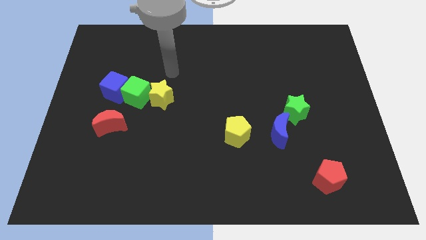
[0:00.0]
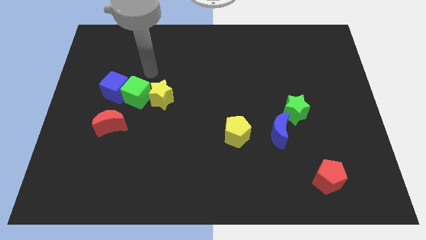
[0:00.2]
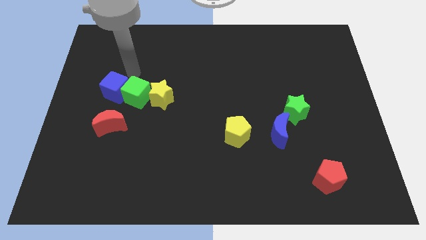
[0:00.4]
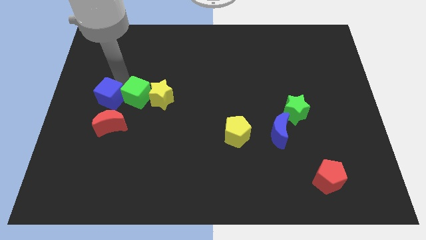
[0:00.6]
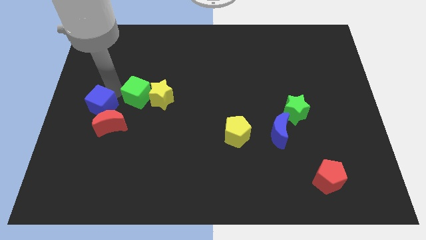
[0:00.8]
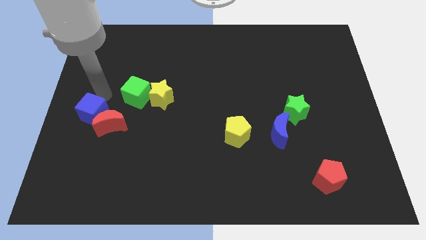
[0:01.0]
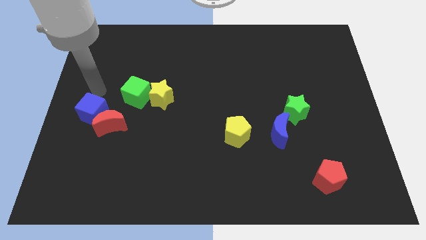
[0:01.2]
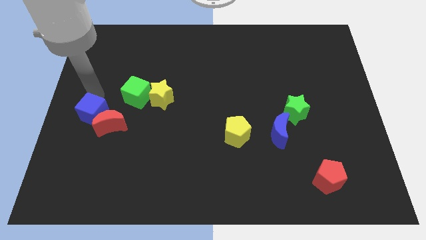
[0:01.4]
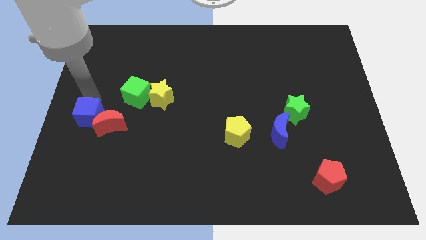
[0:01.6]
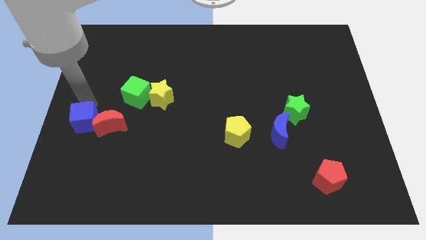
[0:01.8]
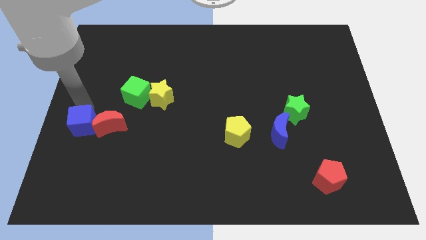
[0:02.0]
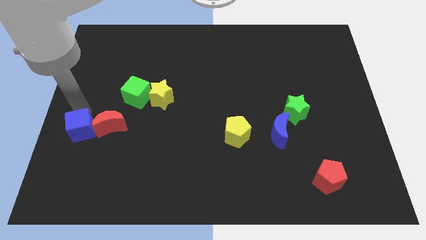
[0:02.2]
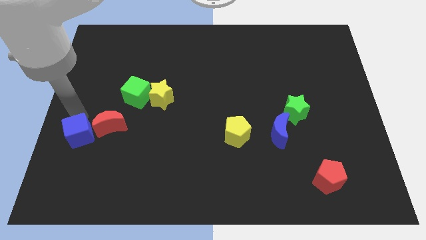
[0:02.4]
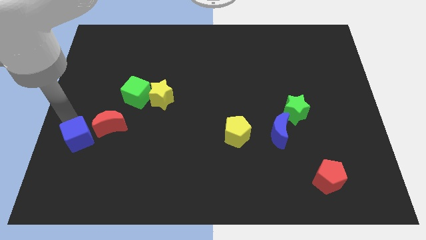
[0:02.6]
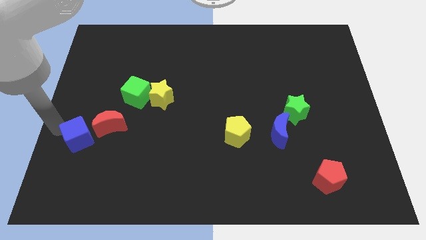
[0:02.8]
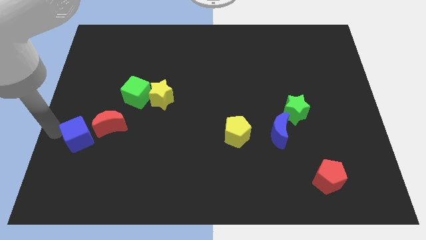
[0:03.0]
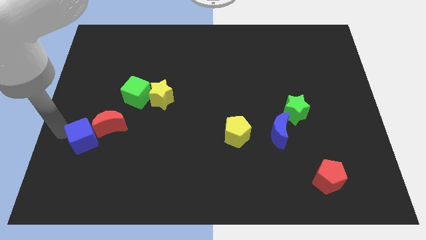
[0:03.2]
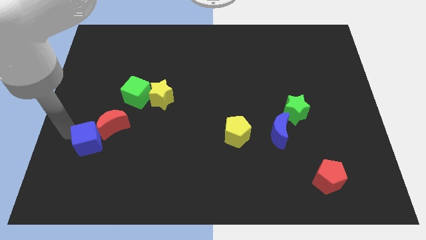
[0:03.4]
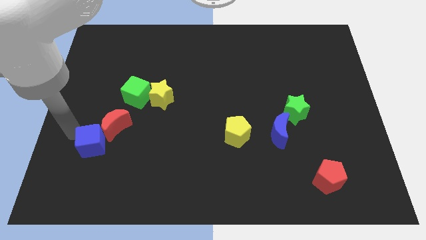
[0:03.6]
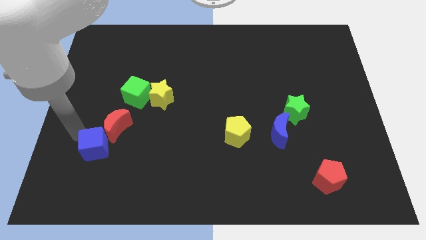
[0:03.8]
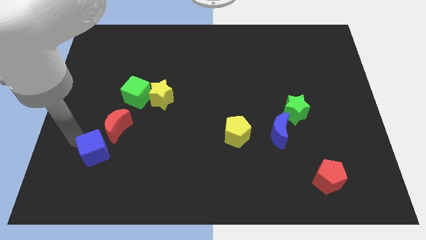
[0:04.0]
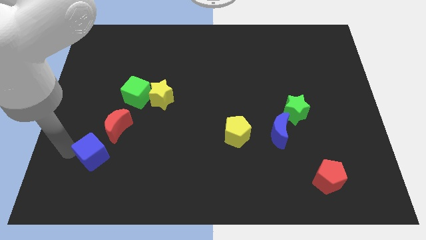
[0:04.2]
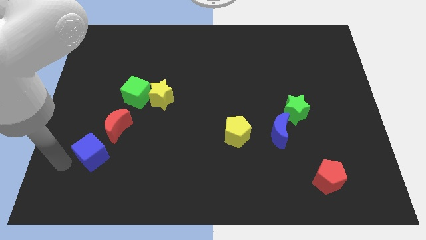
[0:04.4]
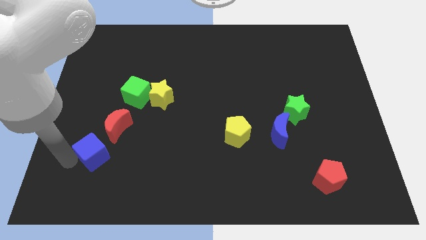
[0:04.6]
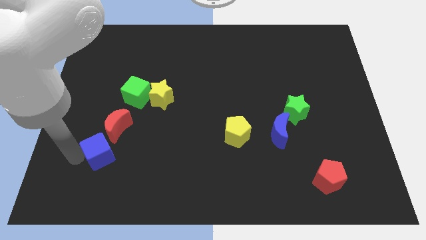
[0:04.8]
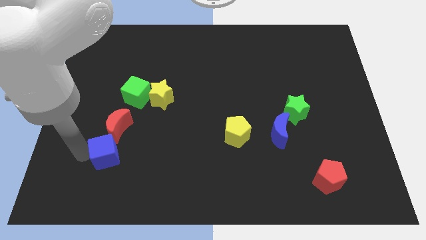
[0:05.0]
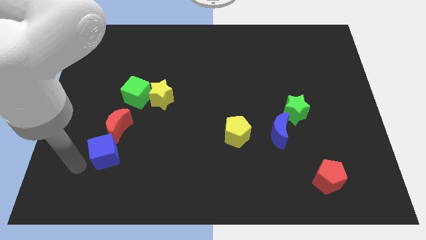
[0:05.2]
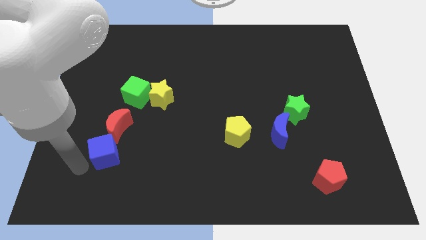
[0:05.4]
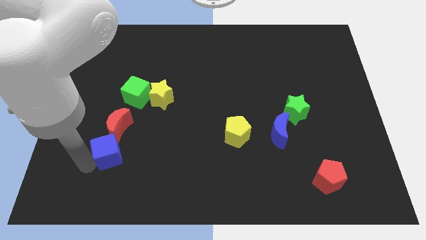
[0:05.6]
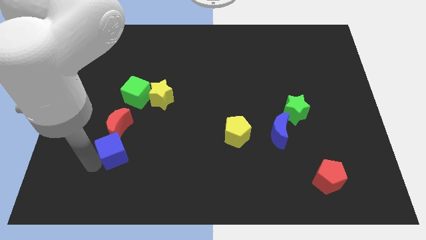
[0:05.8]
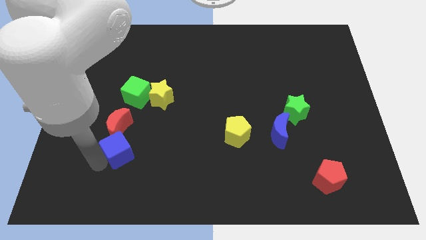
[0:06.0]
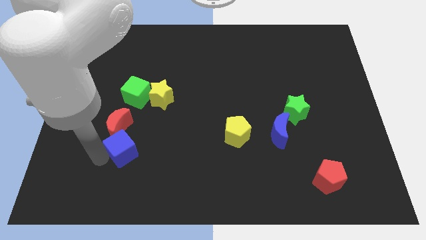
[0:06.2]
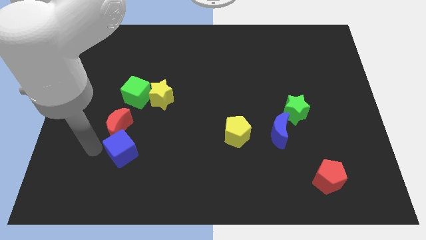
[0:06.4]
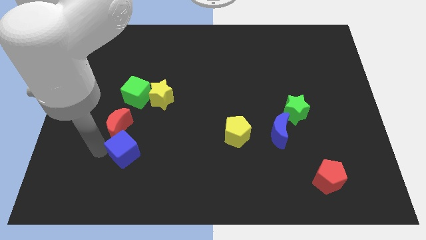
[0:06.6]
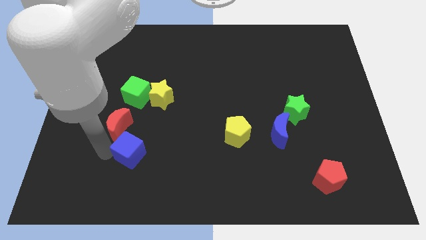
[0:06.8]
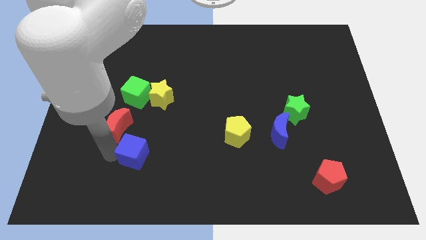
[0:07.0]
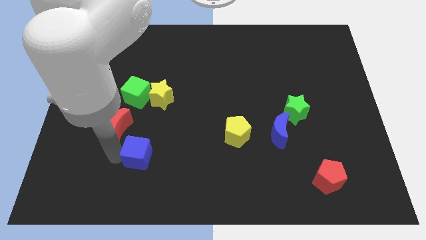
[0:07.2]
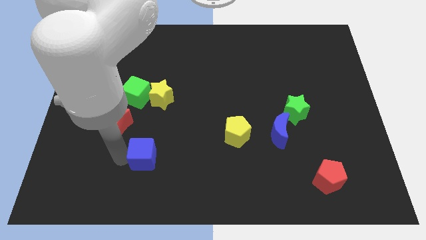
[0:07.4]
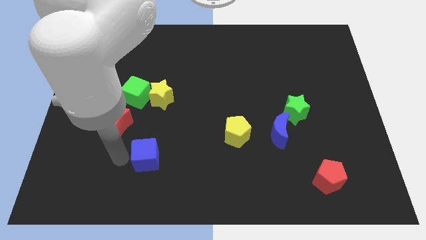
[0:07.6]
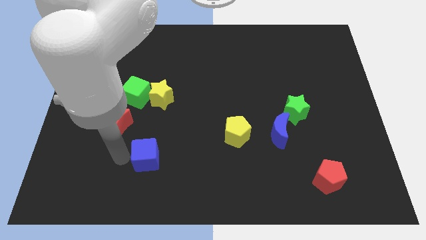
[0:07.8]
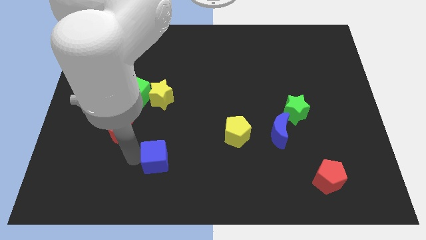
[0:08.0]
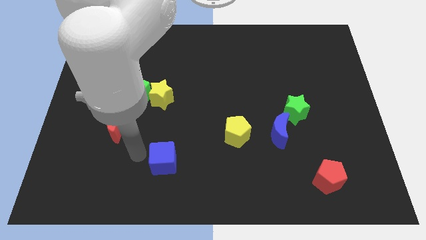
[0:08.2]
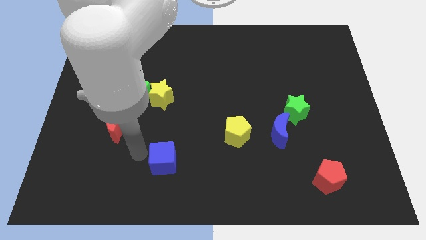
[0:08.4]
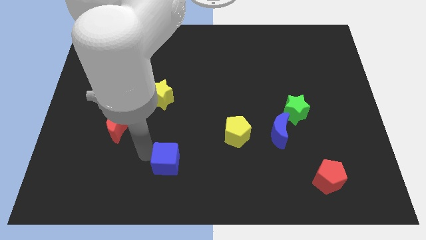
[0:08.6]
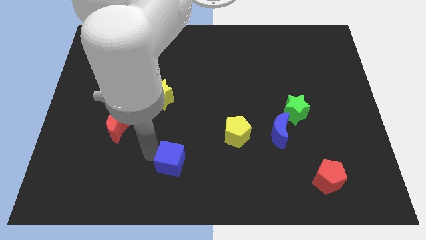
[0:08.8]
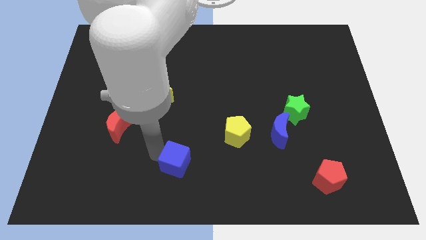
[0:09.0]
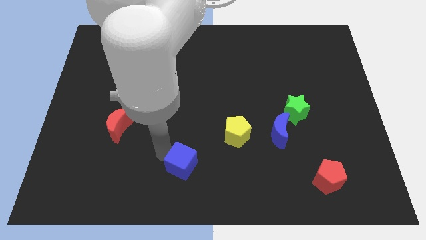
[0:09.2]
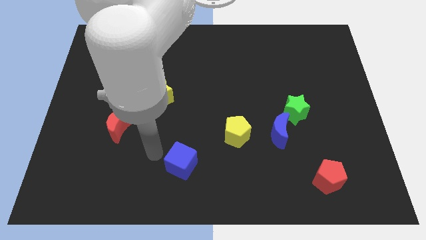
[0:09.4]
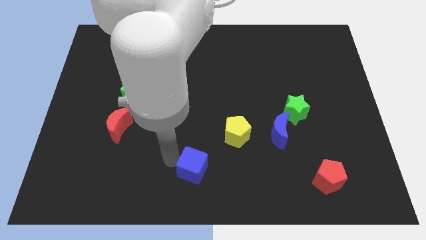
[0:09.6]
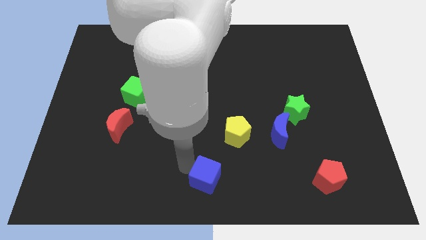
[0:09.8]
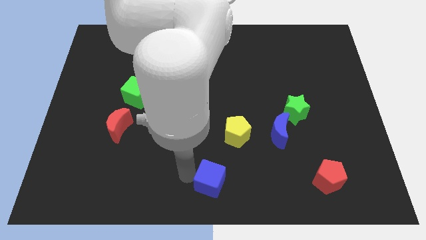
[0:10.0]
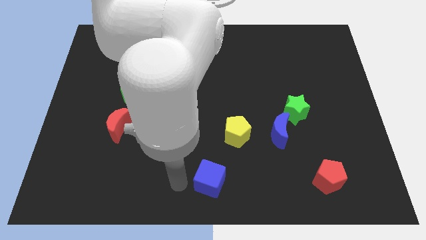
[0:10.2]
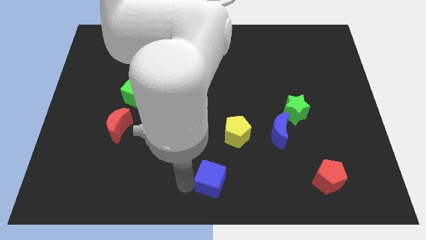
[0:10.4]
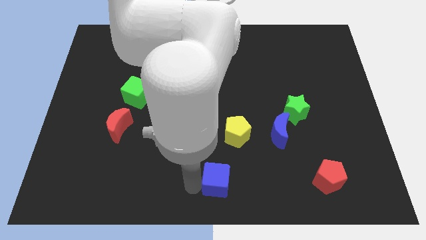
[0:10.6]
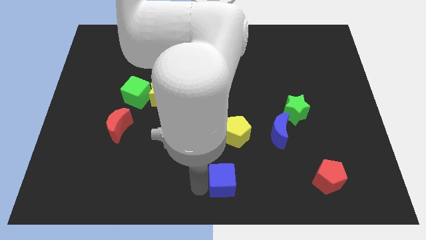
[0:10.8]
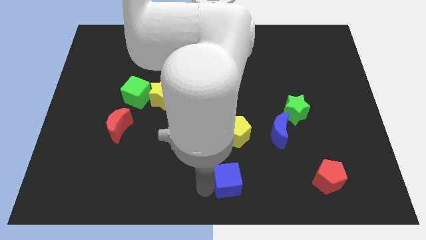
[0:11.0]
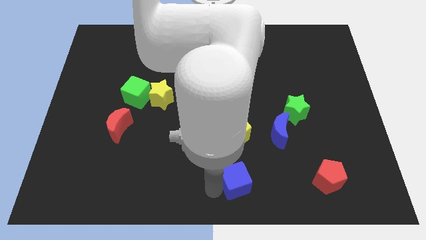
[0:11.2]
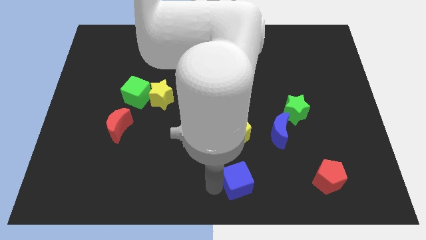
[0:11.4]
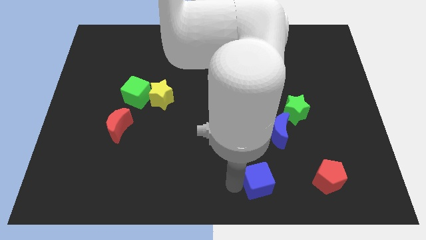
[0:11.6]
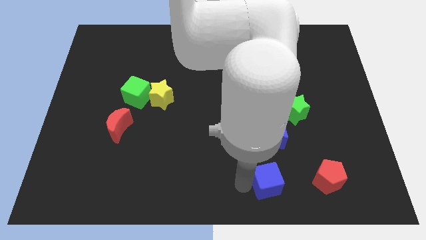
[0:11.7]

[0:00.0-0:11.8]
slide the blue cube to the bottom of the blue moon
